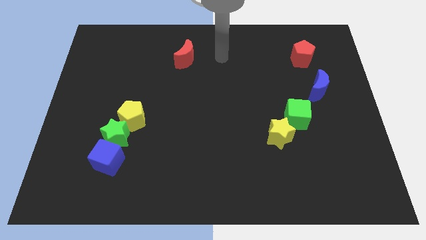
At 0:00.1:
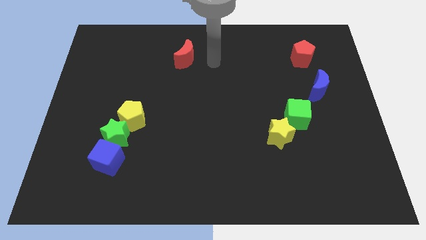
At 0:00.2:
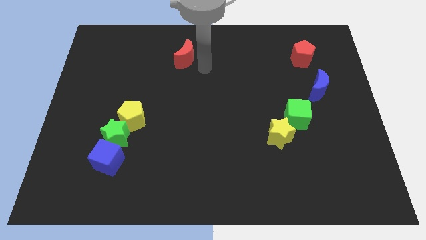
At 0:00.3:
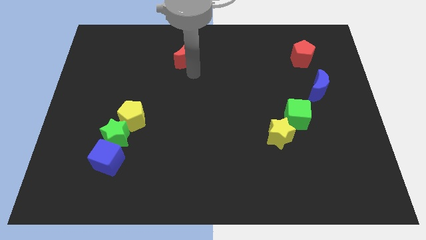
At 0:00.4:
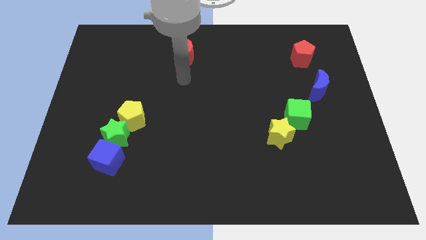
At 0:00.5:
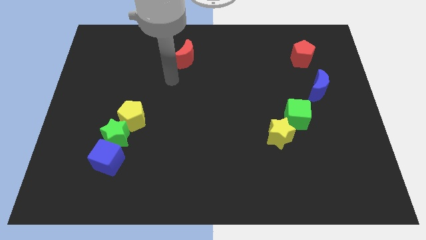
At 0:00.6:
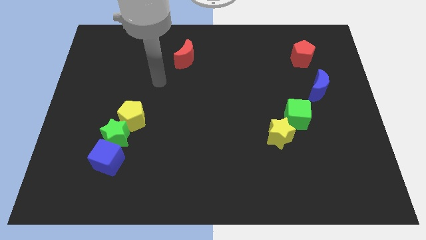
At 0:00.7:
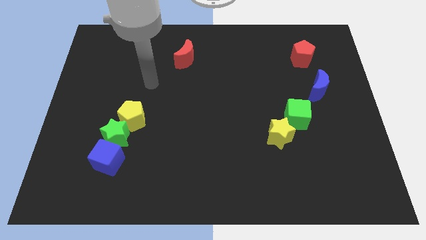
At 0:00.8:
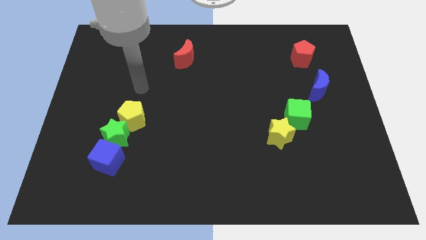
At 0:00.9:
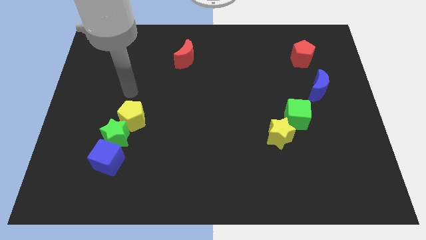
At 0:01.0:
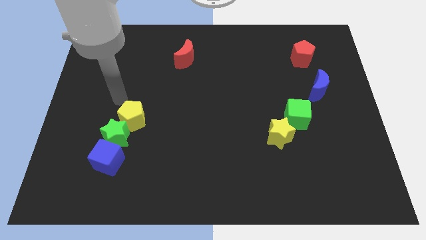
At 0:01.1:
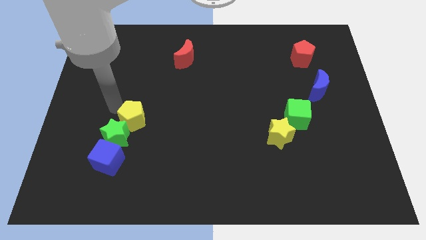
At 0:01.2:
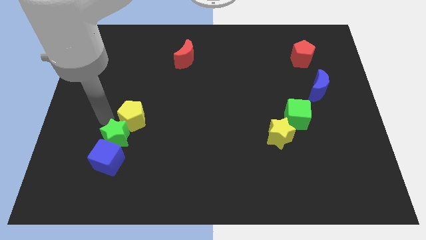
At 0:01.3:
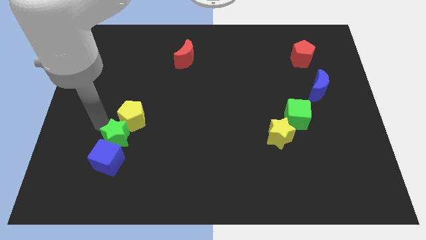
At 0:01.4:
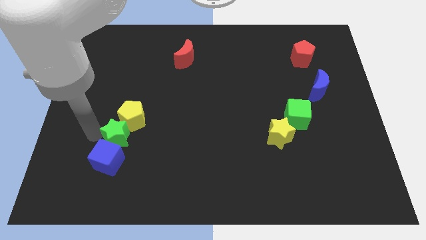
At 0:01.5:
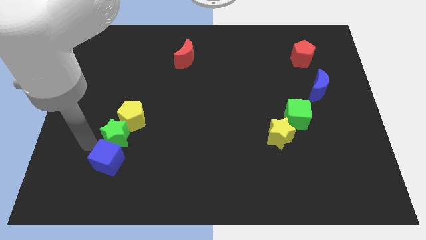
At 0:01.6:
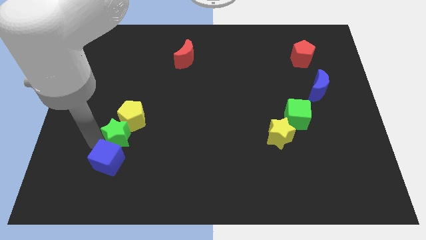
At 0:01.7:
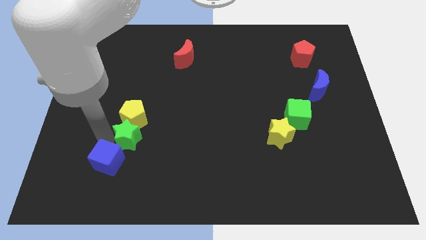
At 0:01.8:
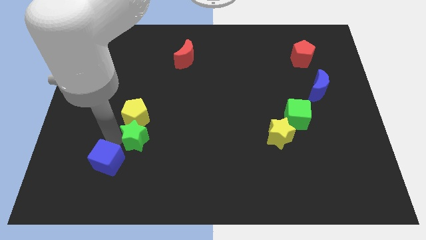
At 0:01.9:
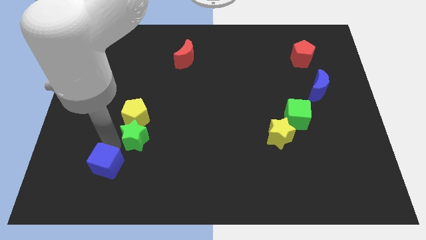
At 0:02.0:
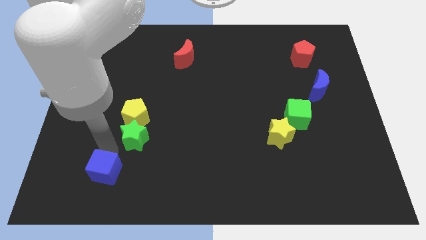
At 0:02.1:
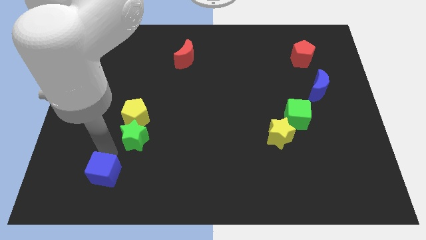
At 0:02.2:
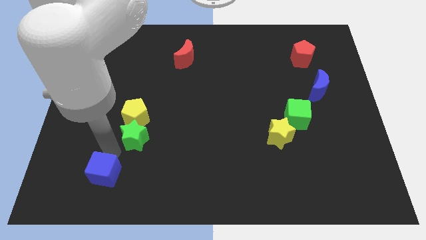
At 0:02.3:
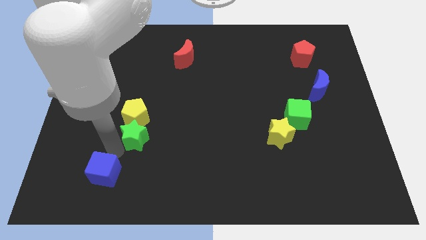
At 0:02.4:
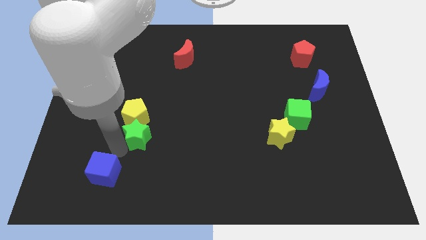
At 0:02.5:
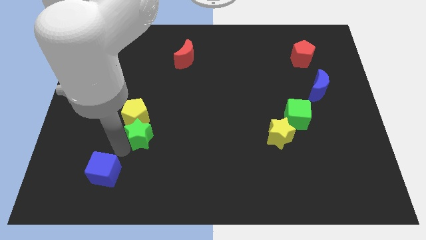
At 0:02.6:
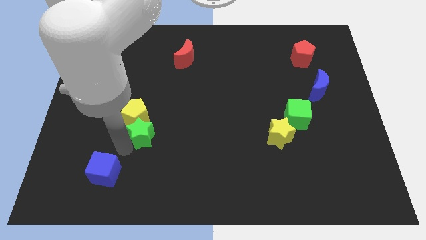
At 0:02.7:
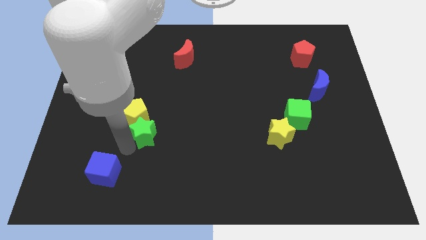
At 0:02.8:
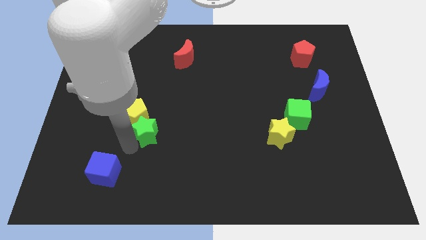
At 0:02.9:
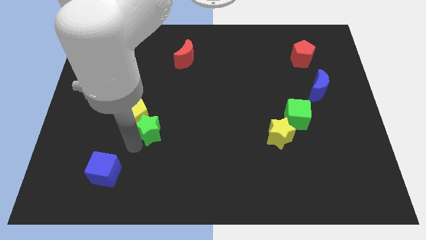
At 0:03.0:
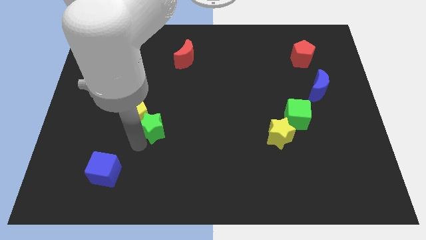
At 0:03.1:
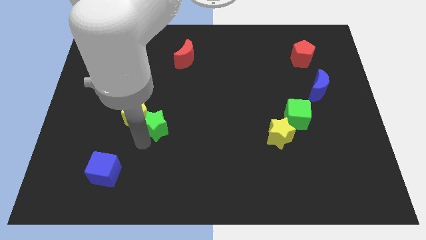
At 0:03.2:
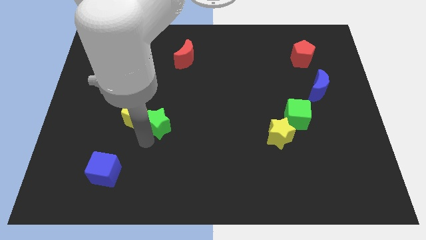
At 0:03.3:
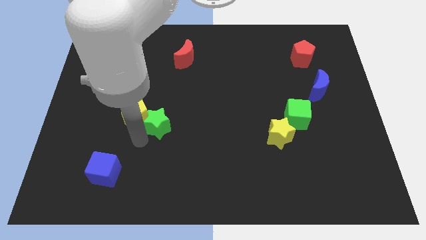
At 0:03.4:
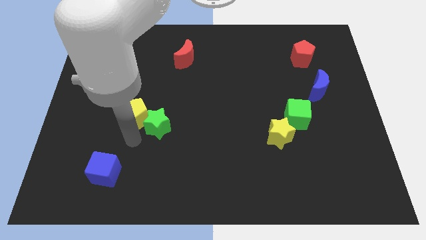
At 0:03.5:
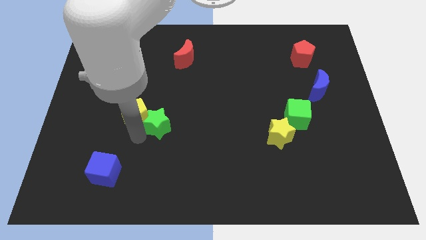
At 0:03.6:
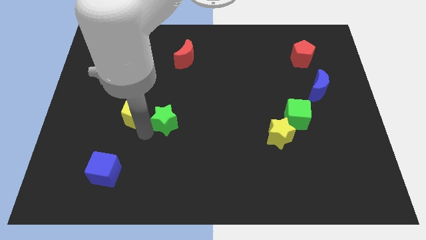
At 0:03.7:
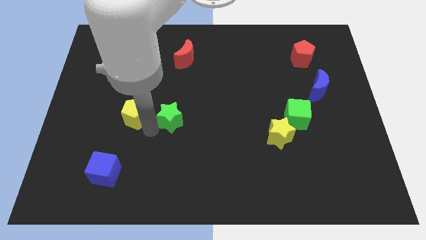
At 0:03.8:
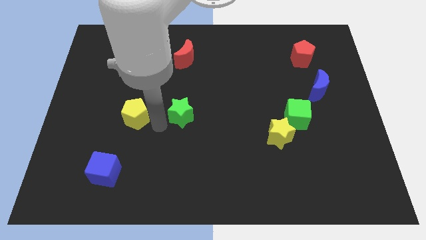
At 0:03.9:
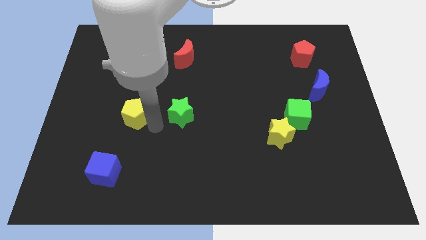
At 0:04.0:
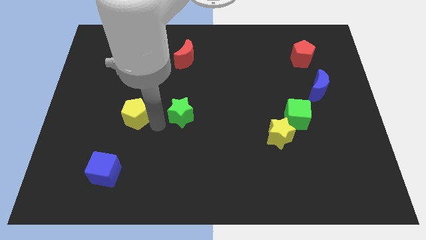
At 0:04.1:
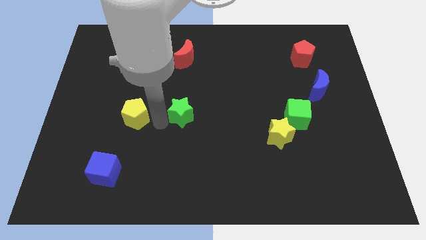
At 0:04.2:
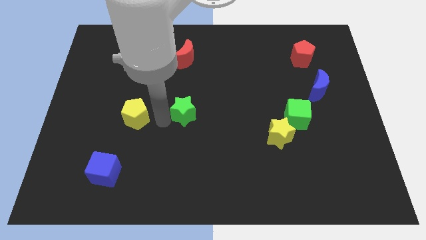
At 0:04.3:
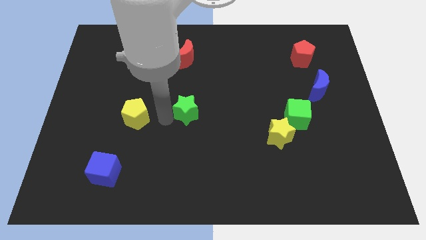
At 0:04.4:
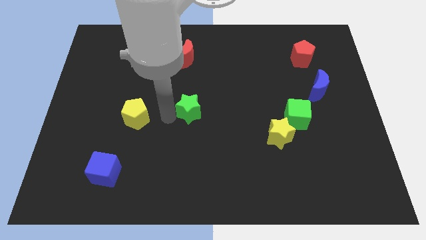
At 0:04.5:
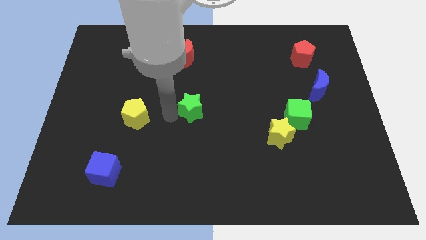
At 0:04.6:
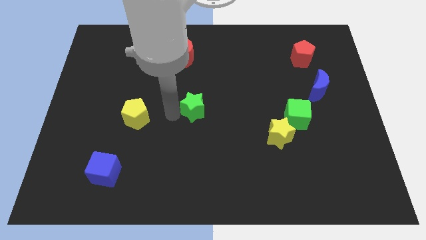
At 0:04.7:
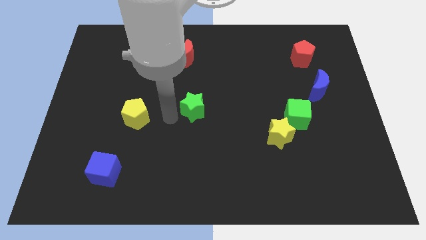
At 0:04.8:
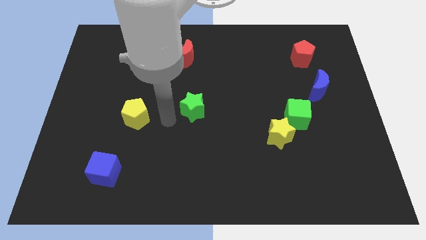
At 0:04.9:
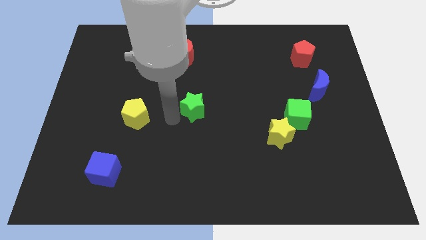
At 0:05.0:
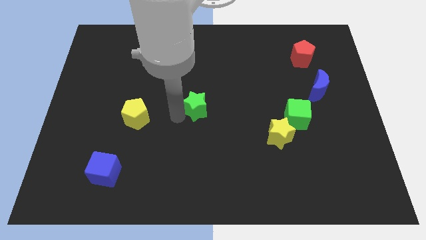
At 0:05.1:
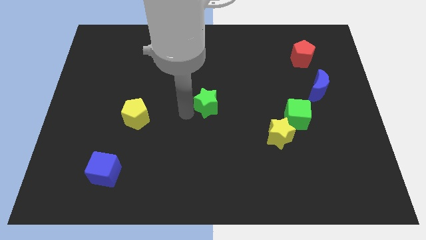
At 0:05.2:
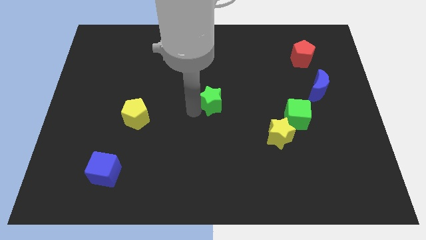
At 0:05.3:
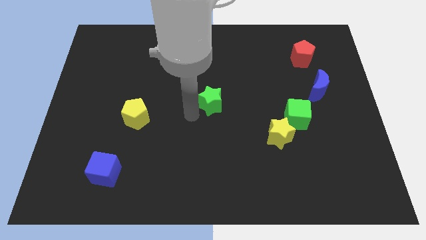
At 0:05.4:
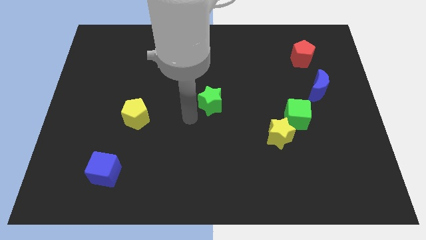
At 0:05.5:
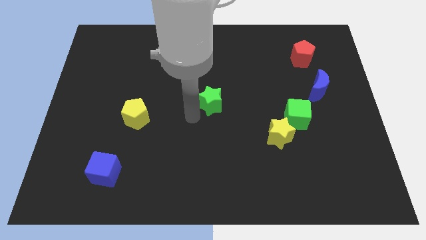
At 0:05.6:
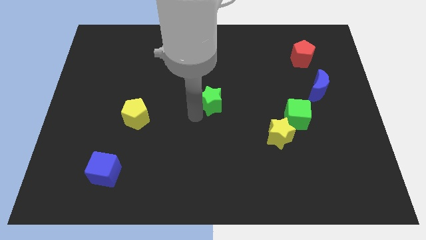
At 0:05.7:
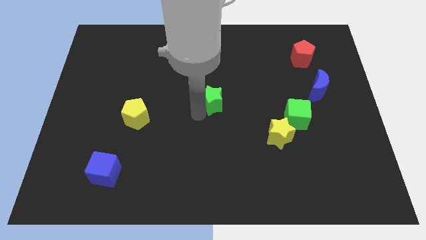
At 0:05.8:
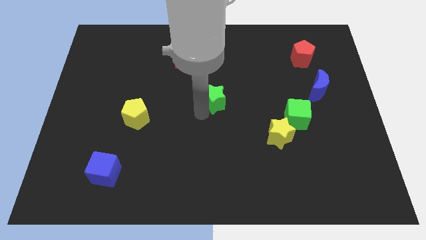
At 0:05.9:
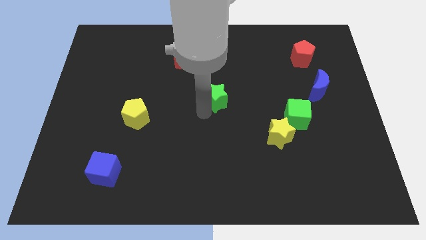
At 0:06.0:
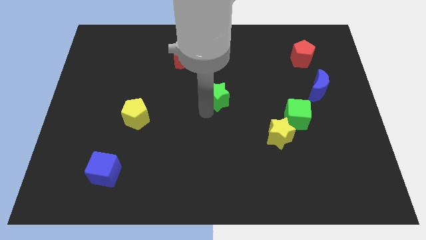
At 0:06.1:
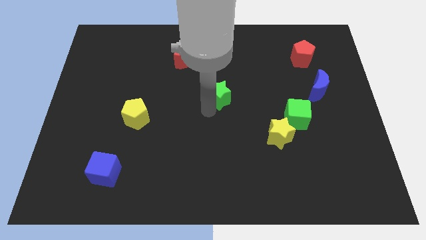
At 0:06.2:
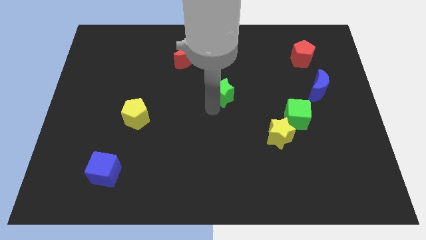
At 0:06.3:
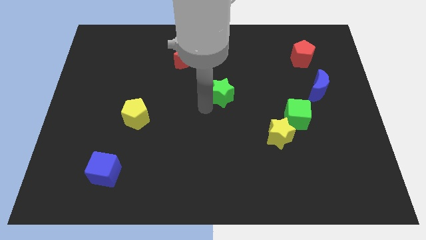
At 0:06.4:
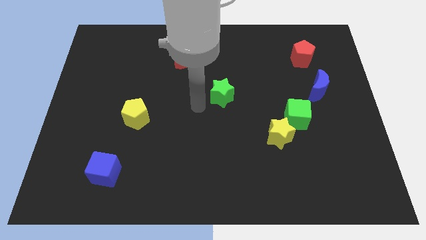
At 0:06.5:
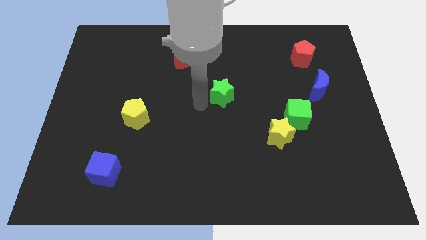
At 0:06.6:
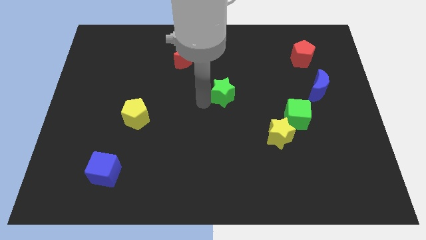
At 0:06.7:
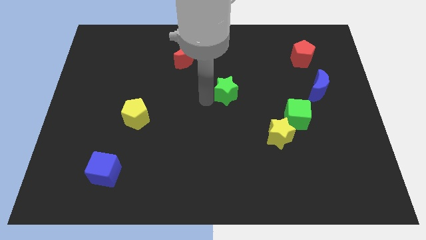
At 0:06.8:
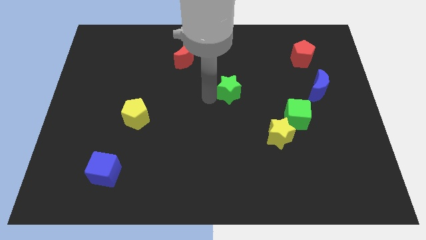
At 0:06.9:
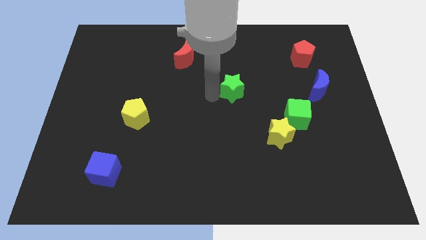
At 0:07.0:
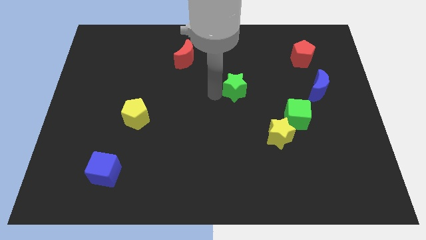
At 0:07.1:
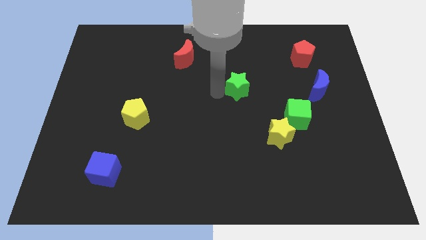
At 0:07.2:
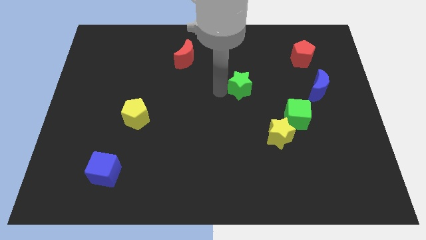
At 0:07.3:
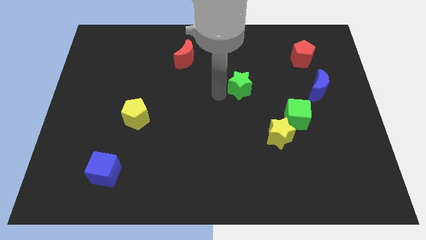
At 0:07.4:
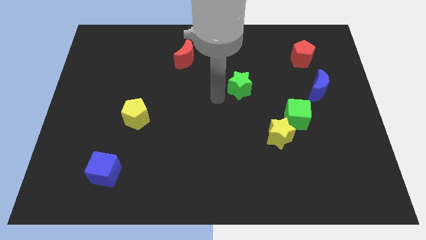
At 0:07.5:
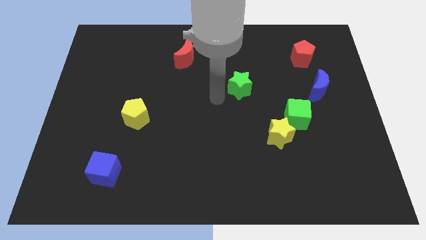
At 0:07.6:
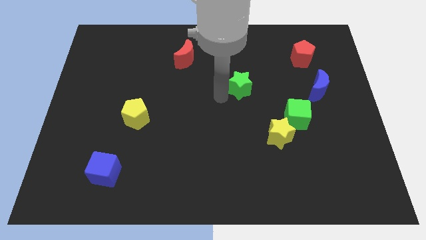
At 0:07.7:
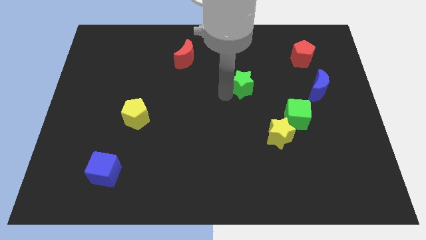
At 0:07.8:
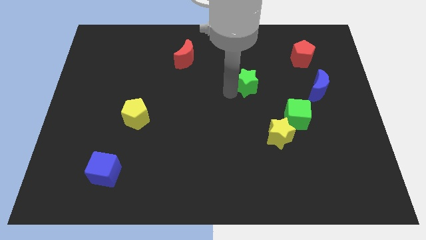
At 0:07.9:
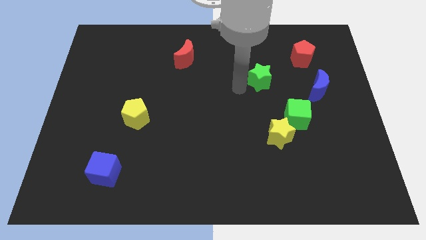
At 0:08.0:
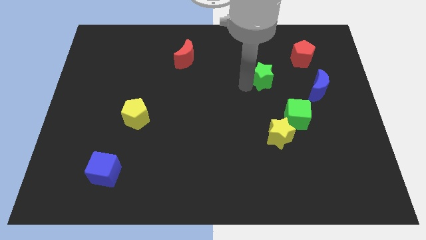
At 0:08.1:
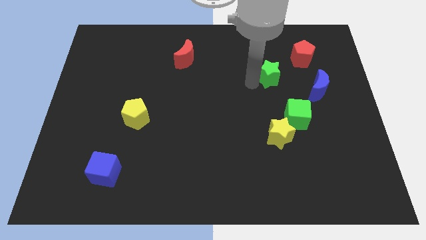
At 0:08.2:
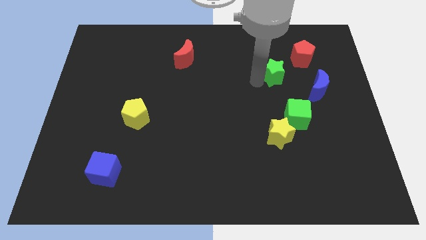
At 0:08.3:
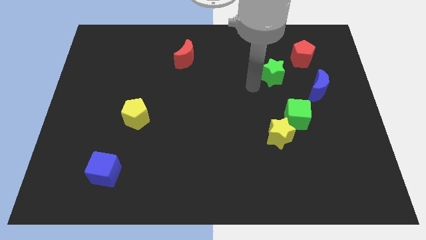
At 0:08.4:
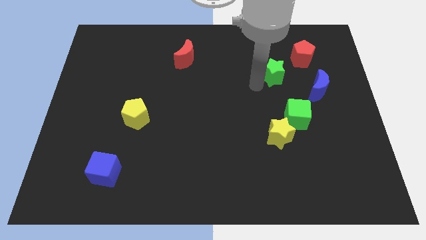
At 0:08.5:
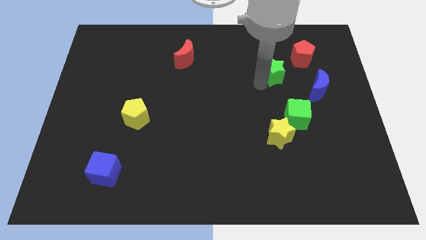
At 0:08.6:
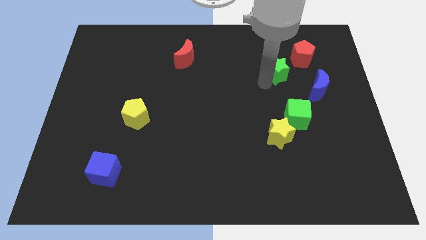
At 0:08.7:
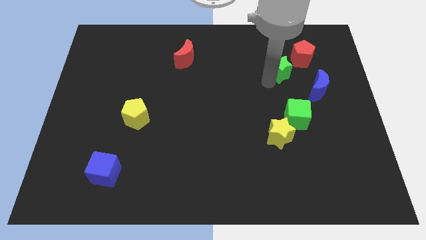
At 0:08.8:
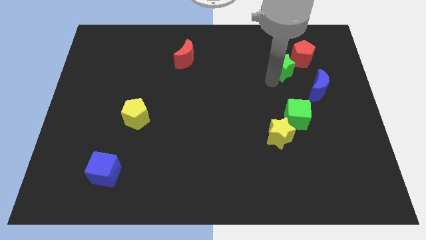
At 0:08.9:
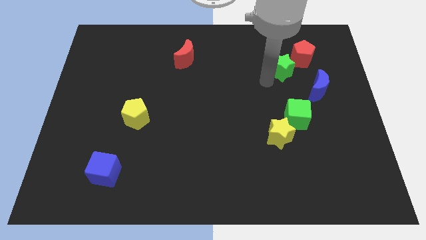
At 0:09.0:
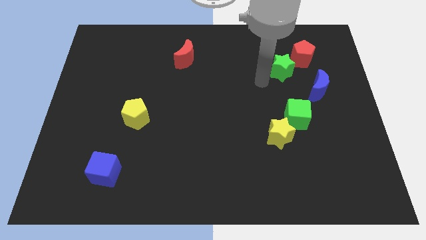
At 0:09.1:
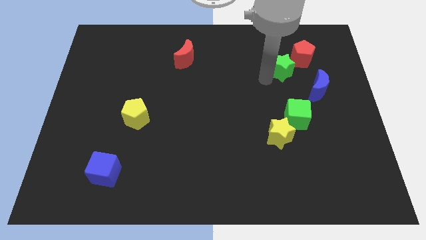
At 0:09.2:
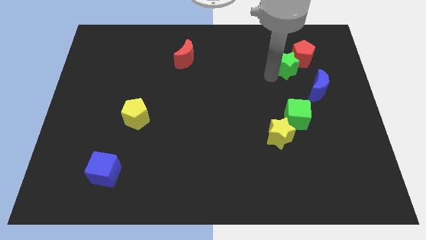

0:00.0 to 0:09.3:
move the green star towards the red pentagon
